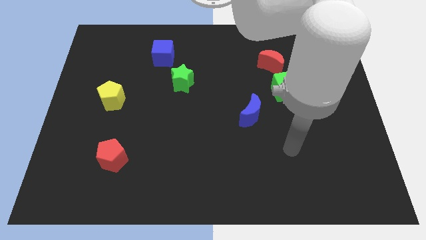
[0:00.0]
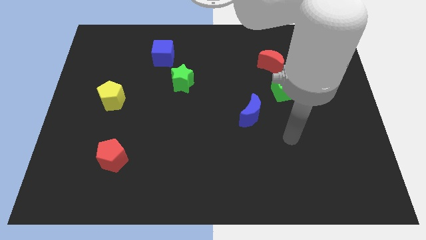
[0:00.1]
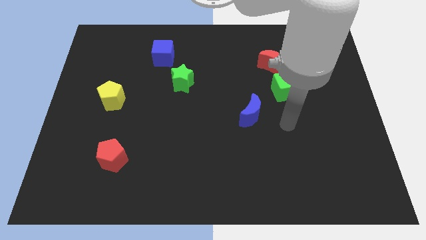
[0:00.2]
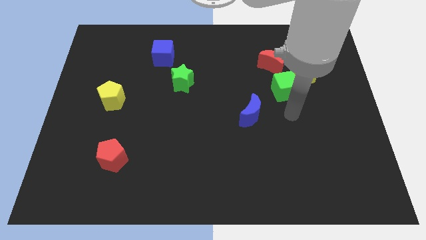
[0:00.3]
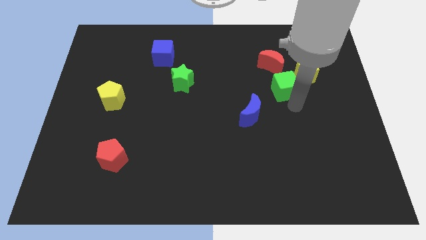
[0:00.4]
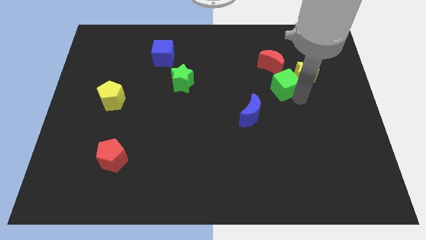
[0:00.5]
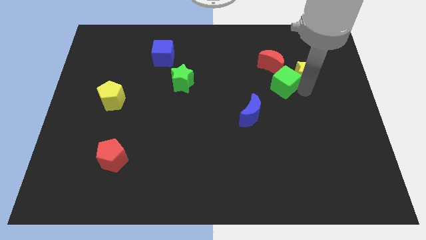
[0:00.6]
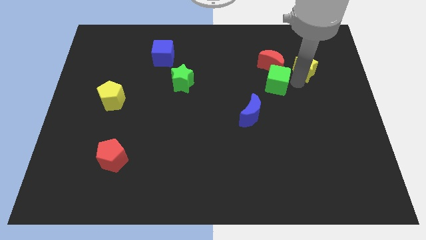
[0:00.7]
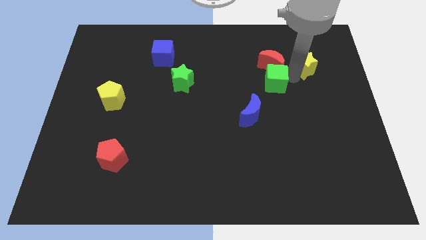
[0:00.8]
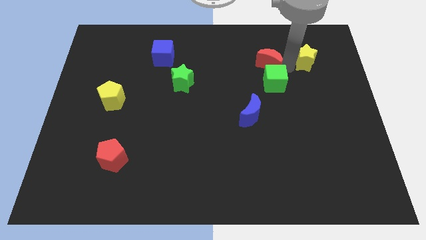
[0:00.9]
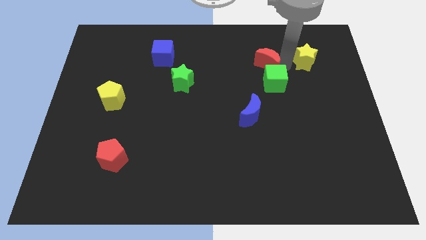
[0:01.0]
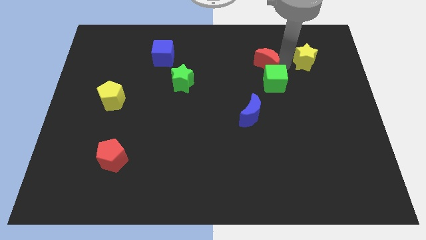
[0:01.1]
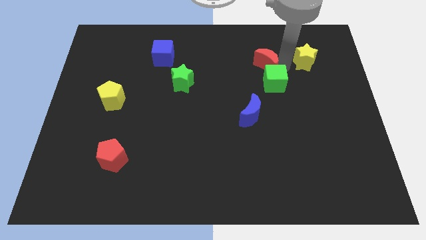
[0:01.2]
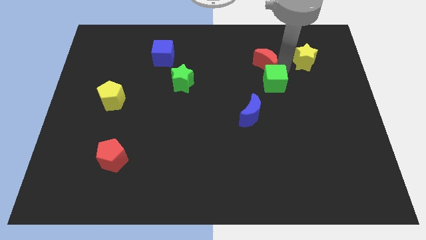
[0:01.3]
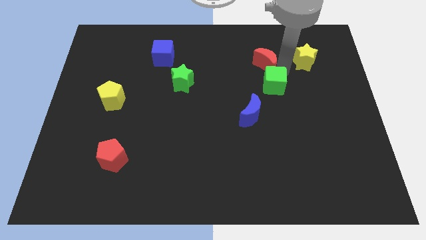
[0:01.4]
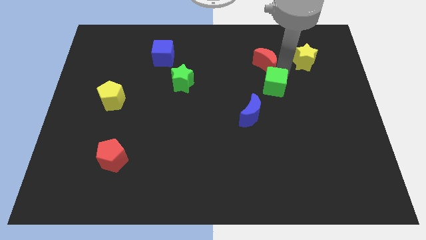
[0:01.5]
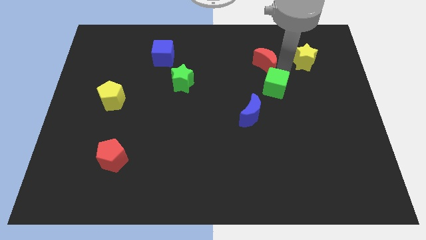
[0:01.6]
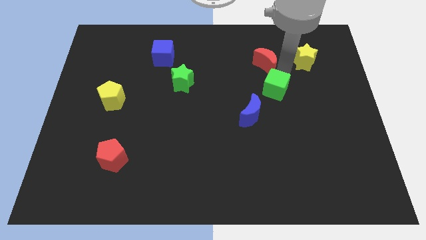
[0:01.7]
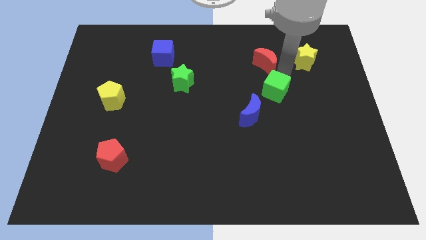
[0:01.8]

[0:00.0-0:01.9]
move the green cube away from the yellow star and red moon

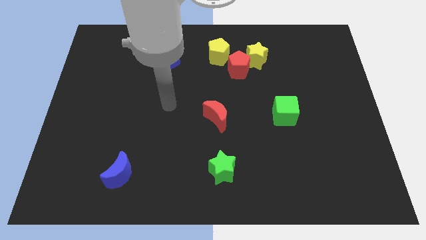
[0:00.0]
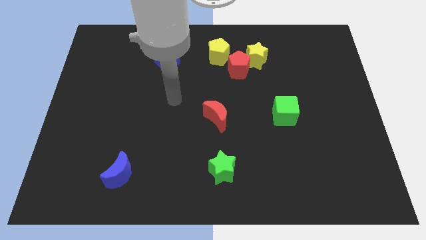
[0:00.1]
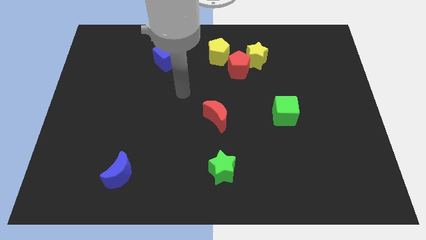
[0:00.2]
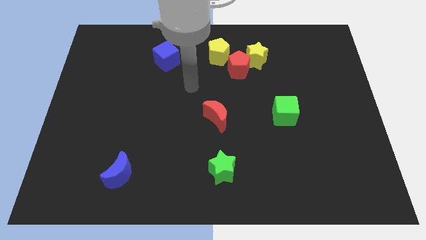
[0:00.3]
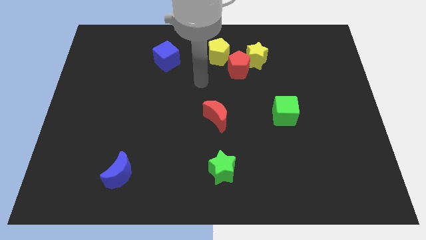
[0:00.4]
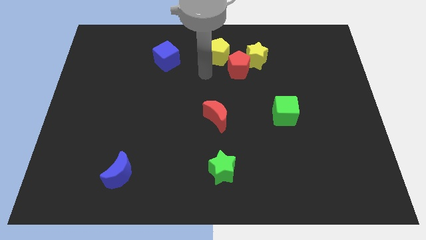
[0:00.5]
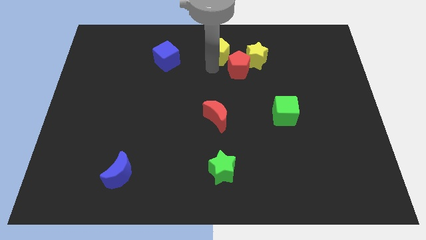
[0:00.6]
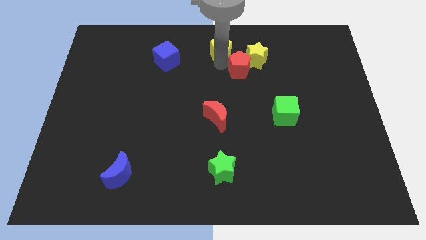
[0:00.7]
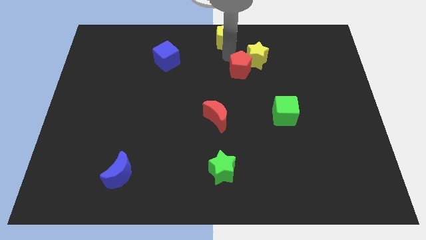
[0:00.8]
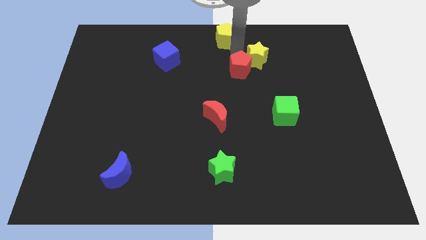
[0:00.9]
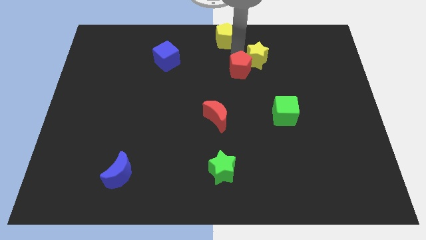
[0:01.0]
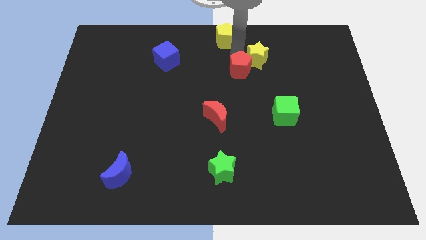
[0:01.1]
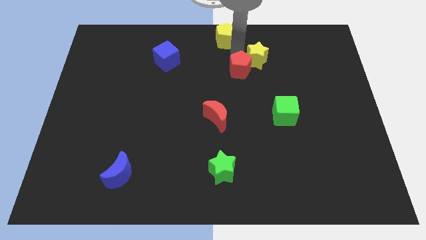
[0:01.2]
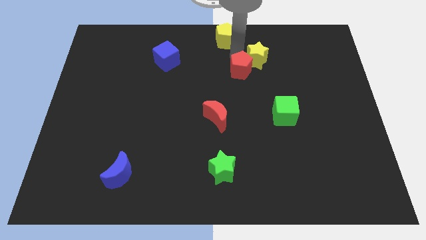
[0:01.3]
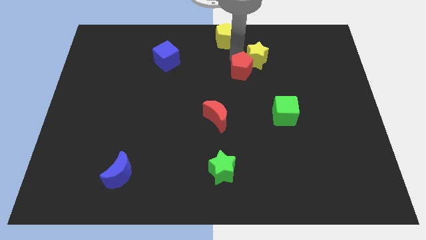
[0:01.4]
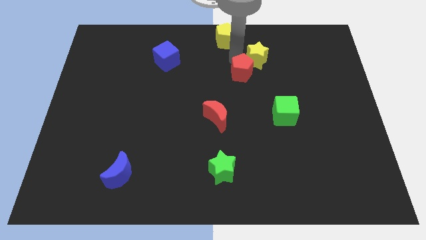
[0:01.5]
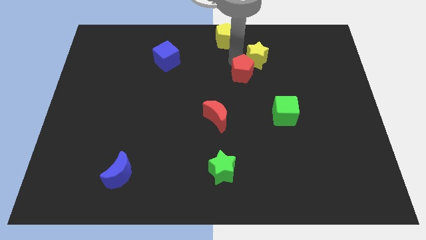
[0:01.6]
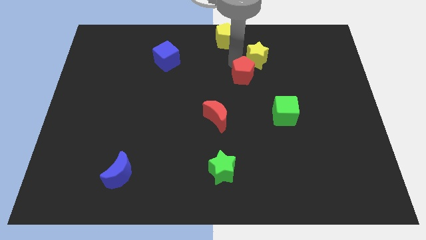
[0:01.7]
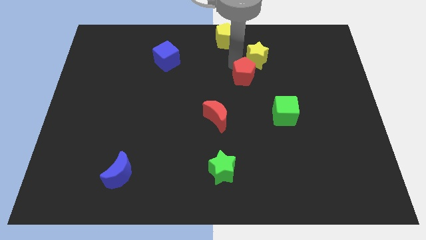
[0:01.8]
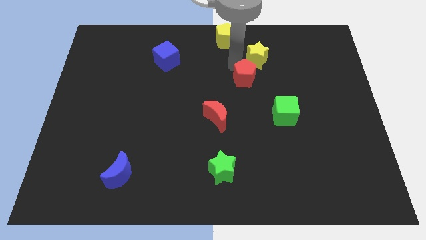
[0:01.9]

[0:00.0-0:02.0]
move the red pentagon away from the yellow star and yellow pentagon

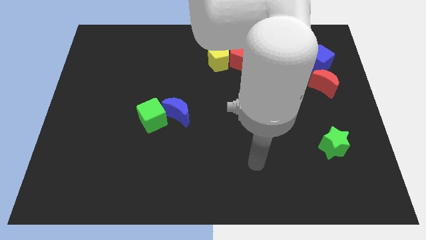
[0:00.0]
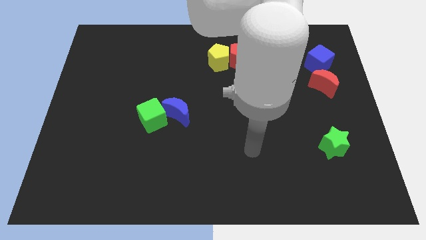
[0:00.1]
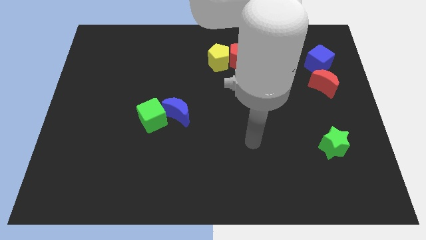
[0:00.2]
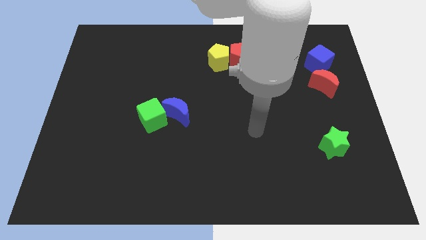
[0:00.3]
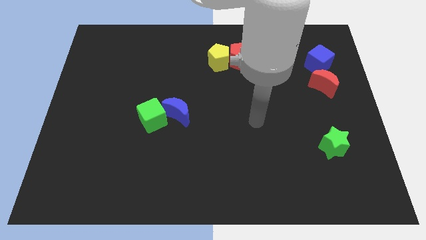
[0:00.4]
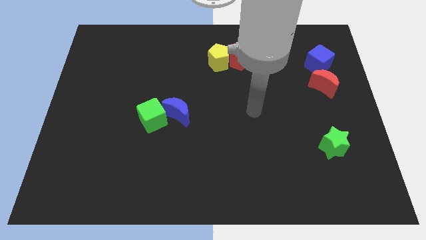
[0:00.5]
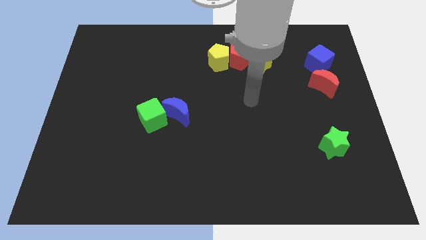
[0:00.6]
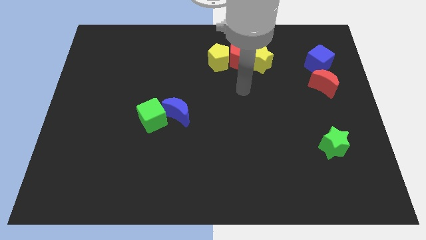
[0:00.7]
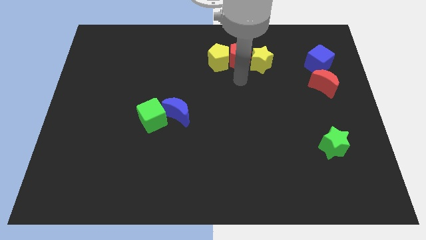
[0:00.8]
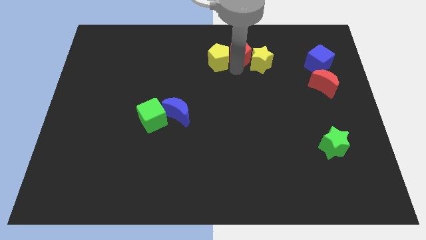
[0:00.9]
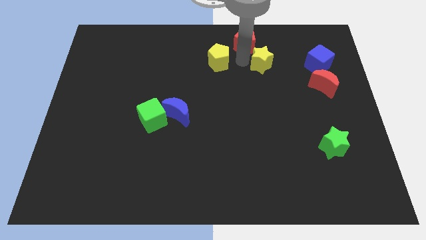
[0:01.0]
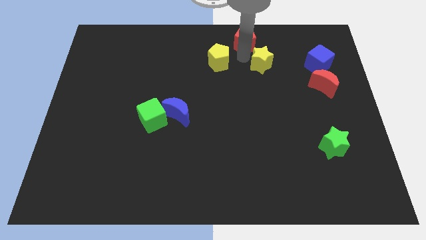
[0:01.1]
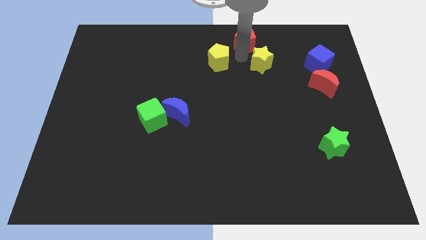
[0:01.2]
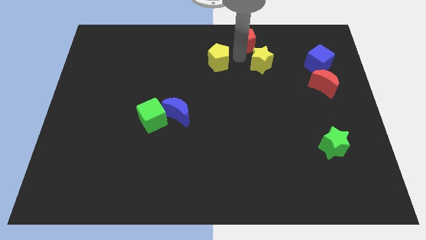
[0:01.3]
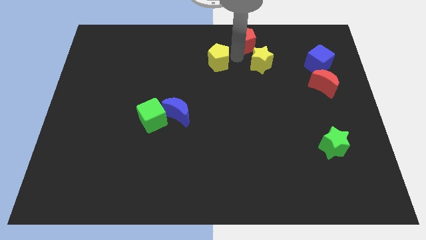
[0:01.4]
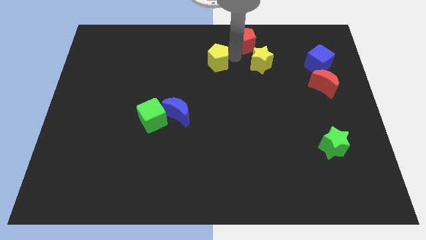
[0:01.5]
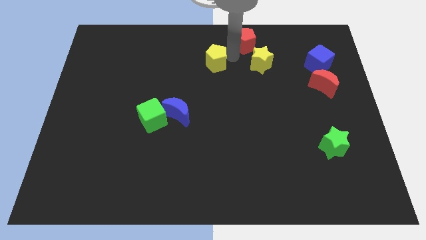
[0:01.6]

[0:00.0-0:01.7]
pull the yellow pentagon apart from the red pentagon

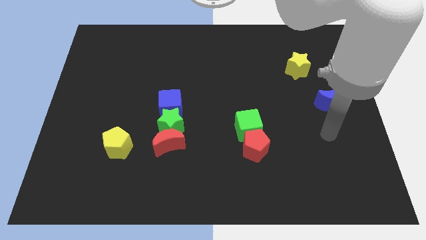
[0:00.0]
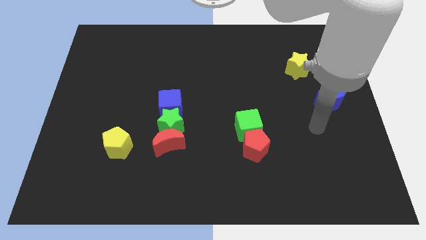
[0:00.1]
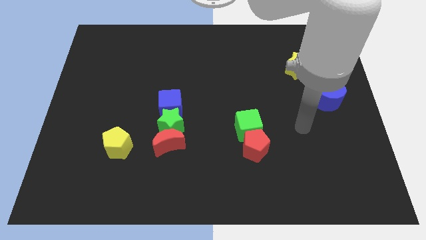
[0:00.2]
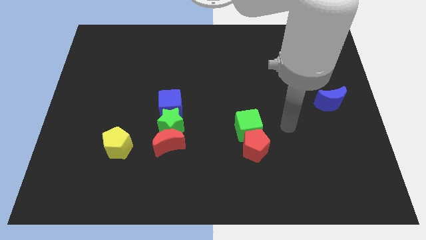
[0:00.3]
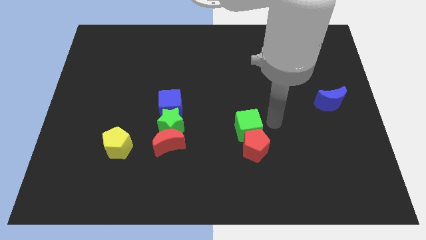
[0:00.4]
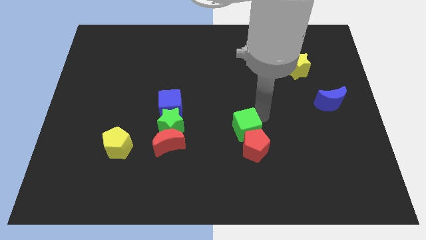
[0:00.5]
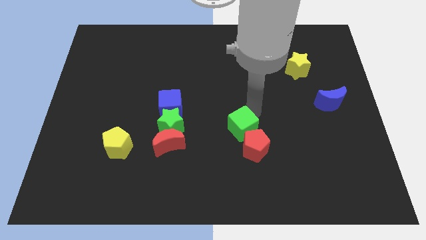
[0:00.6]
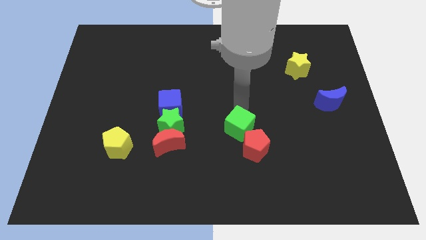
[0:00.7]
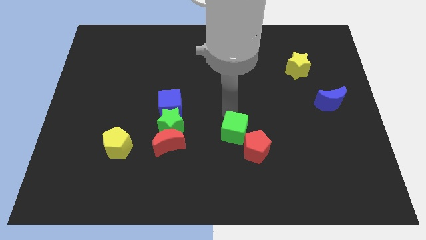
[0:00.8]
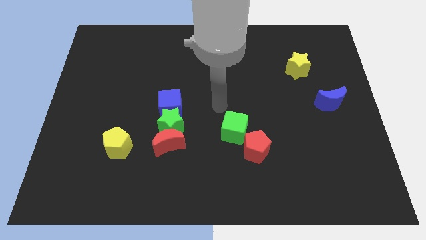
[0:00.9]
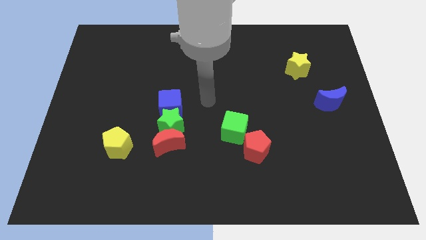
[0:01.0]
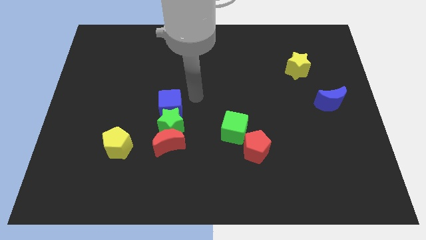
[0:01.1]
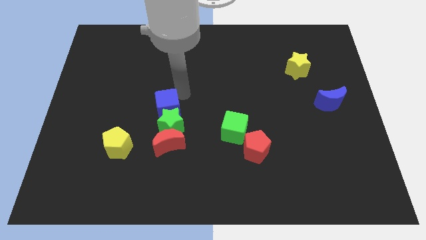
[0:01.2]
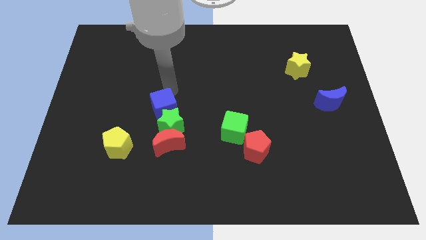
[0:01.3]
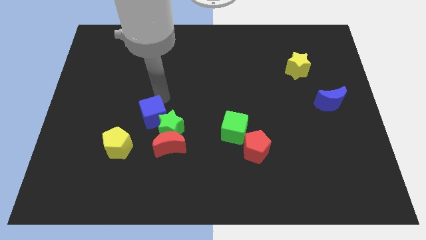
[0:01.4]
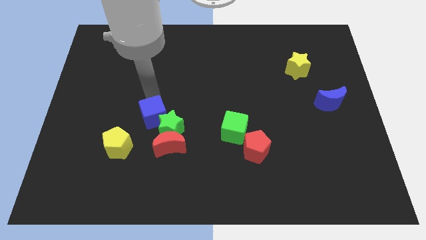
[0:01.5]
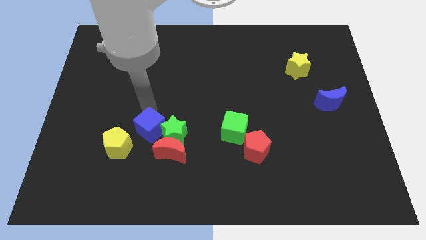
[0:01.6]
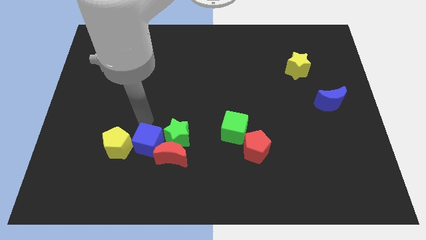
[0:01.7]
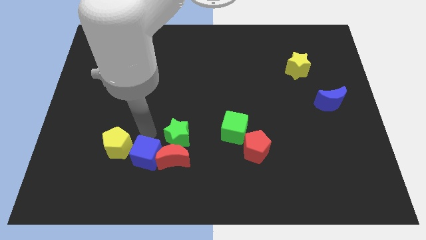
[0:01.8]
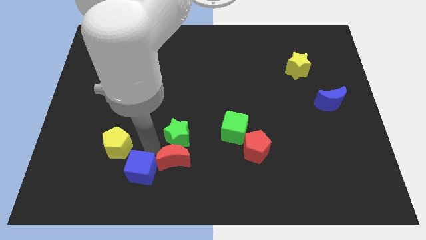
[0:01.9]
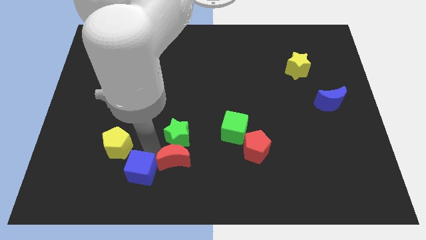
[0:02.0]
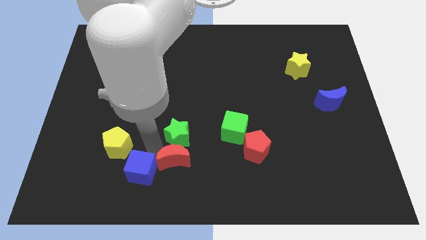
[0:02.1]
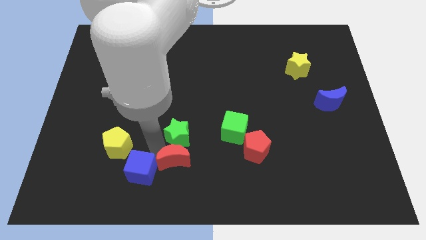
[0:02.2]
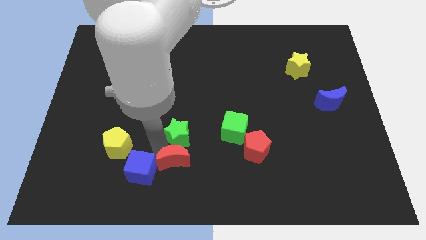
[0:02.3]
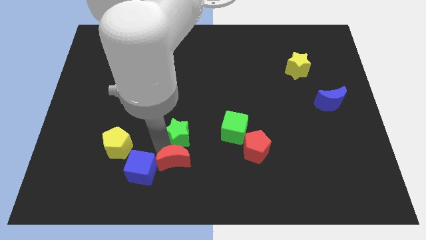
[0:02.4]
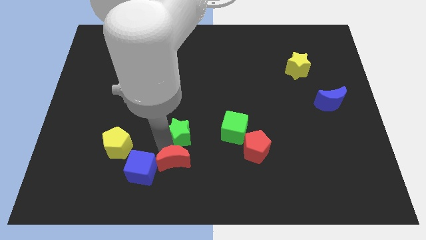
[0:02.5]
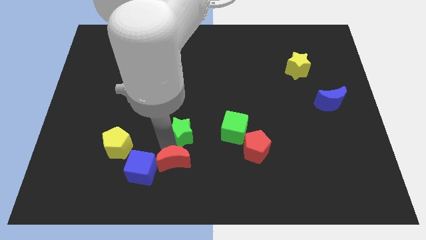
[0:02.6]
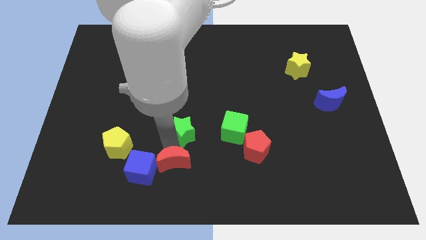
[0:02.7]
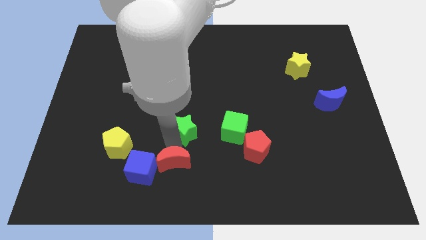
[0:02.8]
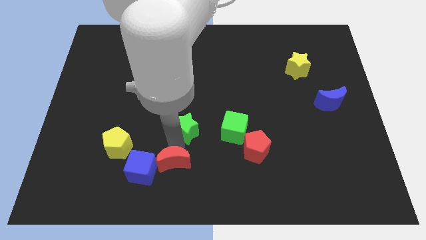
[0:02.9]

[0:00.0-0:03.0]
move the green star away from the red moon and blue cube

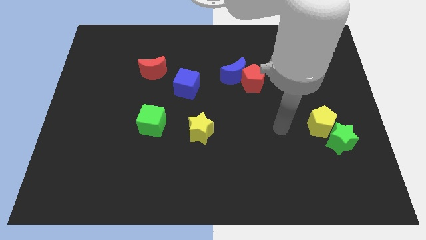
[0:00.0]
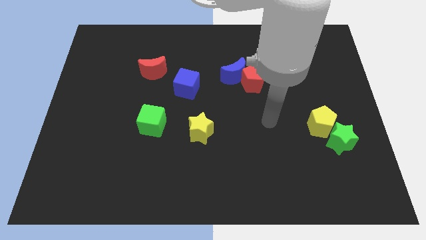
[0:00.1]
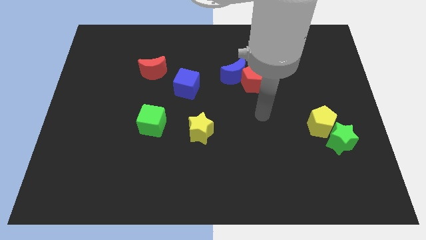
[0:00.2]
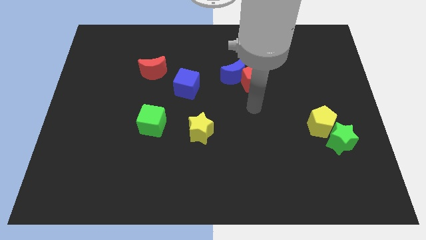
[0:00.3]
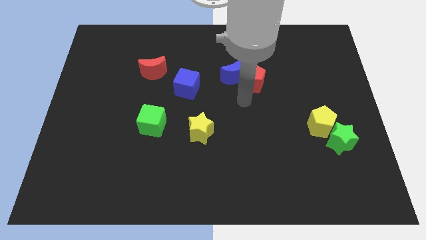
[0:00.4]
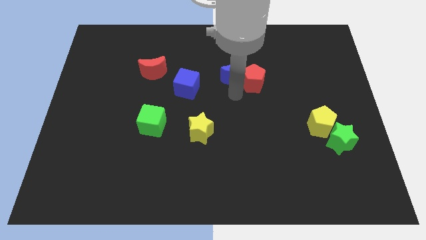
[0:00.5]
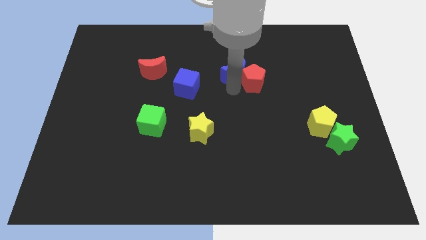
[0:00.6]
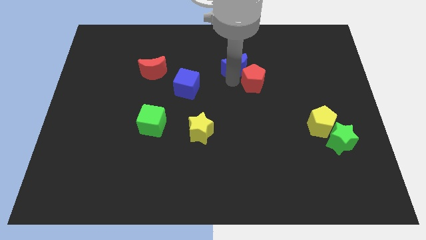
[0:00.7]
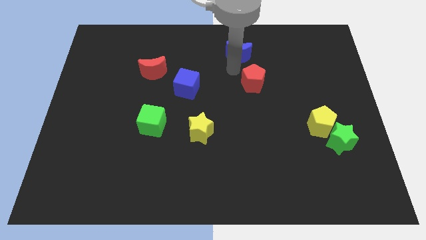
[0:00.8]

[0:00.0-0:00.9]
pull the red pentagon apart from the blue moon

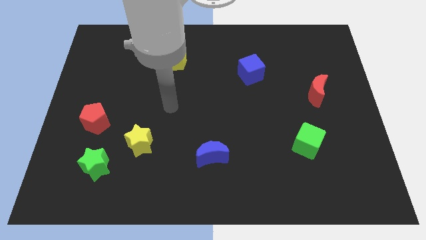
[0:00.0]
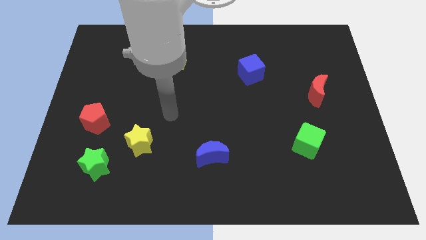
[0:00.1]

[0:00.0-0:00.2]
separate the green star from the yellow star
